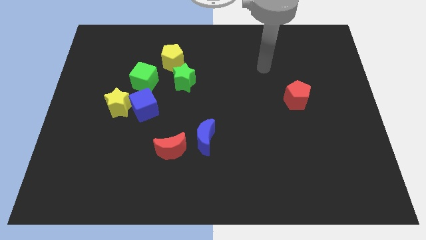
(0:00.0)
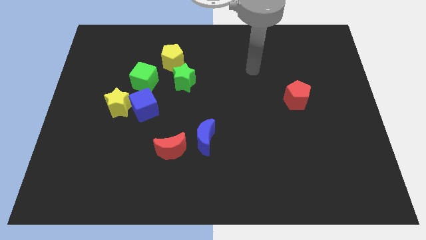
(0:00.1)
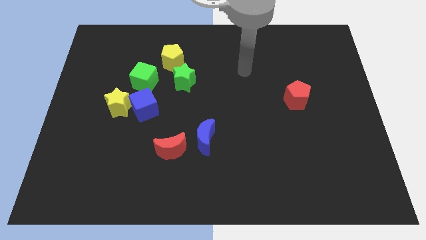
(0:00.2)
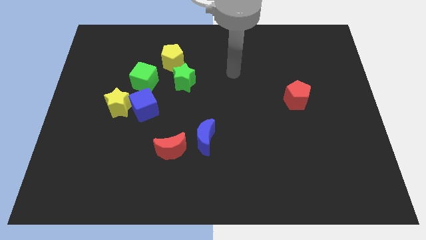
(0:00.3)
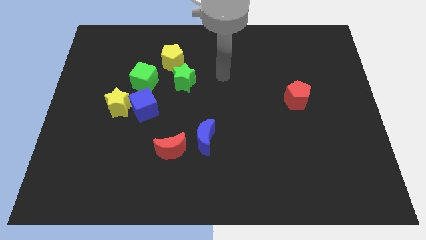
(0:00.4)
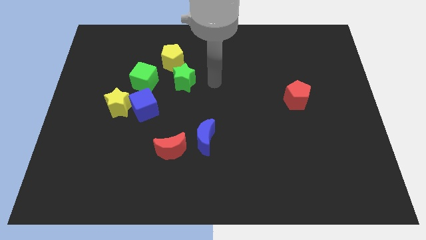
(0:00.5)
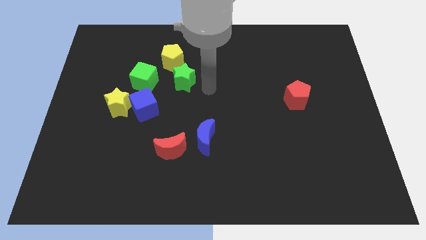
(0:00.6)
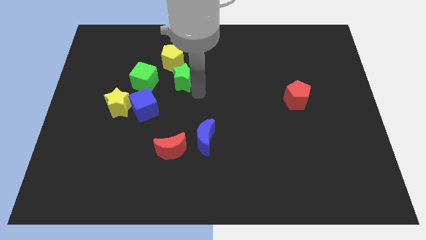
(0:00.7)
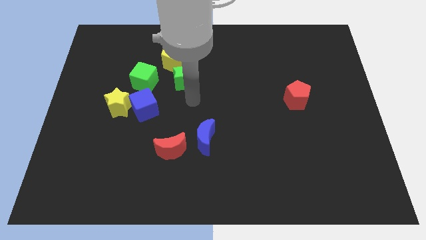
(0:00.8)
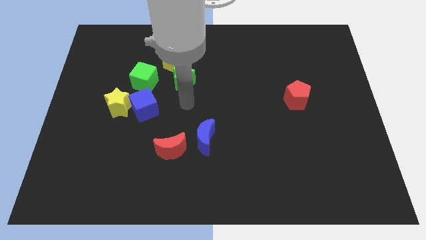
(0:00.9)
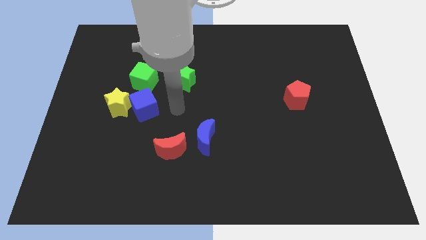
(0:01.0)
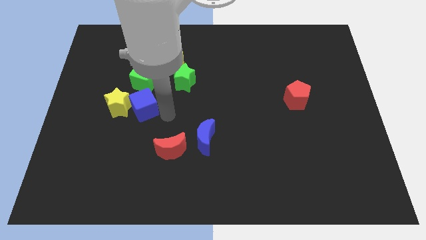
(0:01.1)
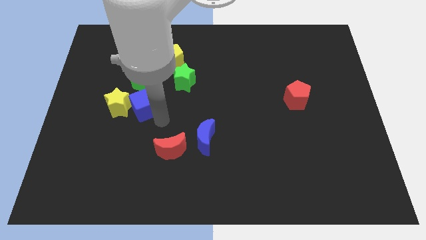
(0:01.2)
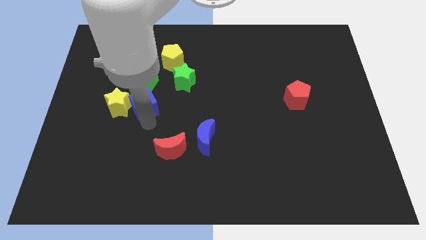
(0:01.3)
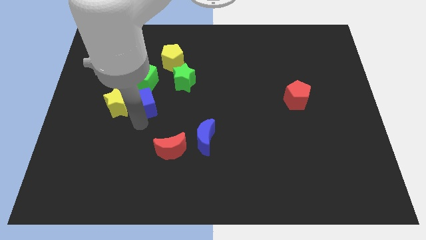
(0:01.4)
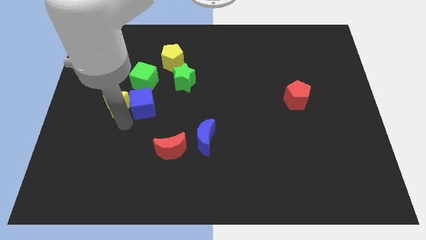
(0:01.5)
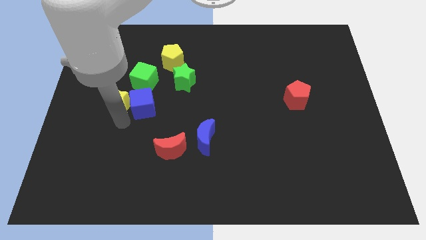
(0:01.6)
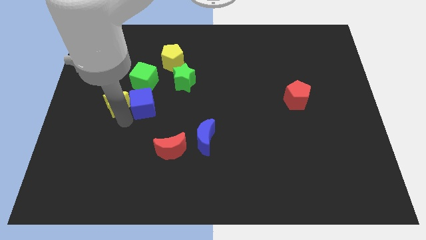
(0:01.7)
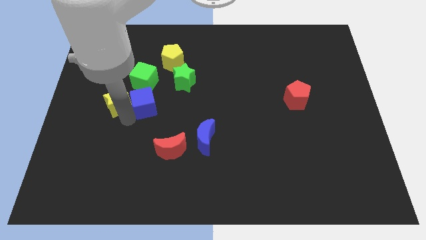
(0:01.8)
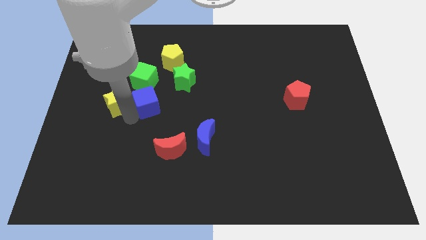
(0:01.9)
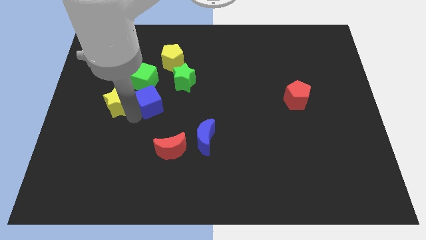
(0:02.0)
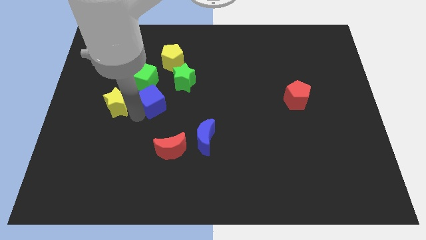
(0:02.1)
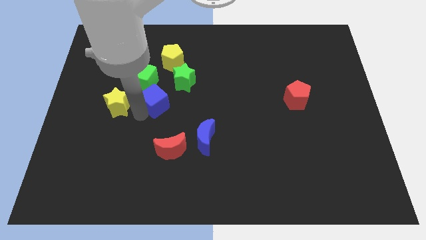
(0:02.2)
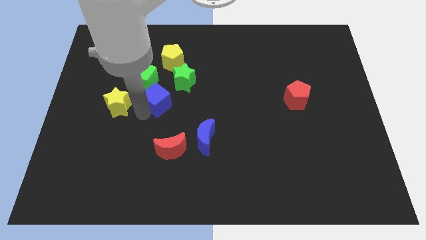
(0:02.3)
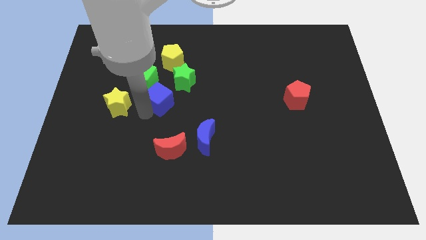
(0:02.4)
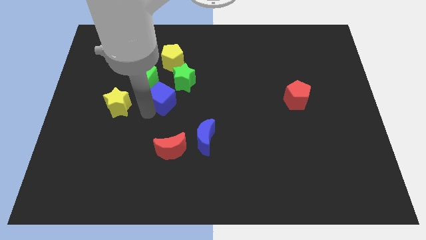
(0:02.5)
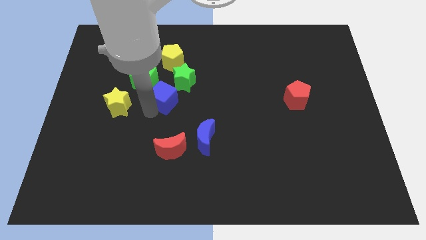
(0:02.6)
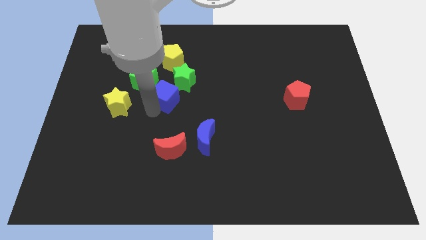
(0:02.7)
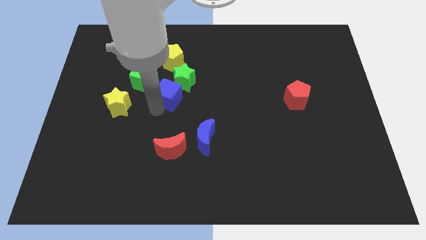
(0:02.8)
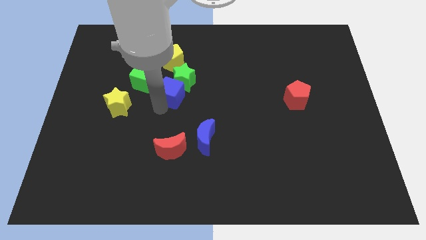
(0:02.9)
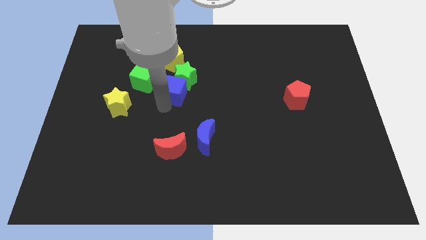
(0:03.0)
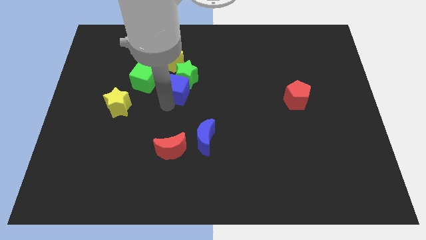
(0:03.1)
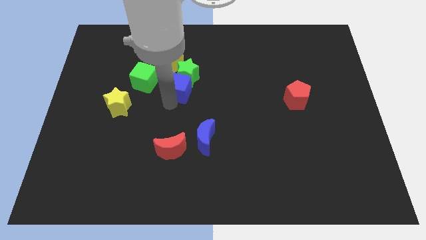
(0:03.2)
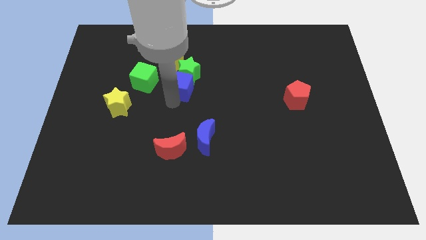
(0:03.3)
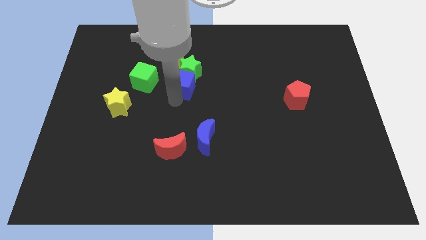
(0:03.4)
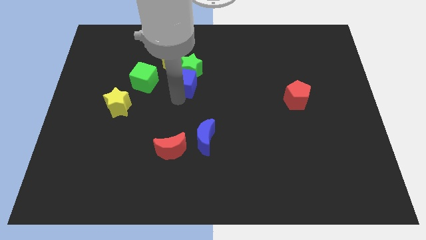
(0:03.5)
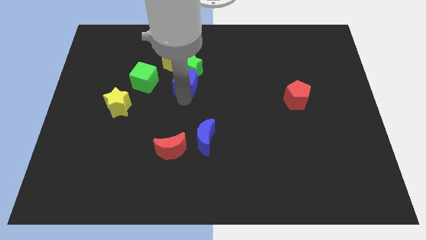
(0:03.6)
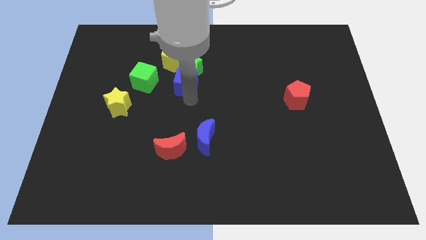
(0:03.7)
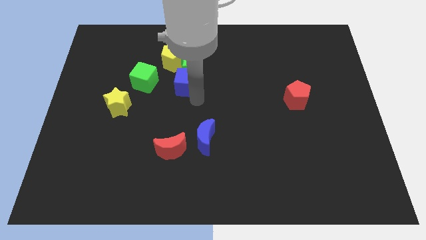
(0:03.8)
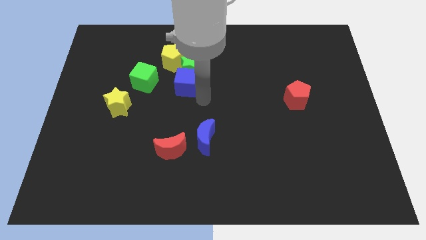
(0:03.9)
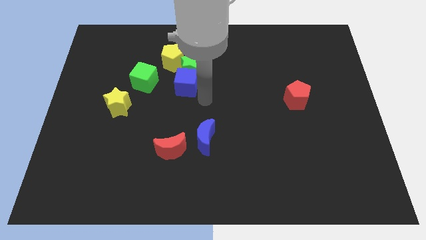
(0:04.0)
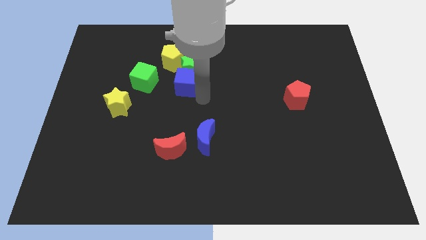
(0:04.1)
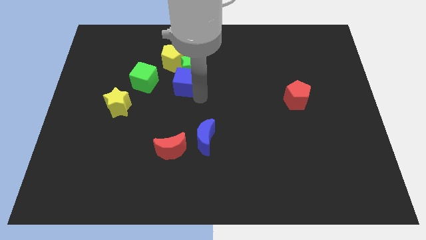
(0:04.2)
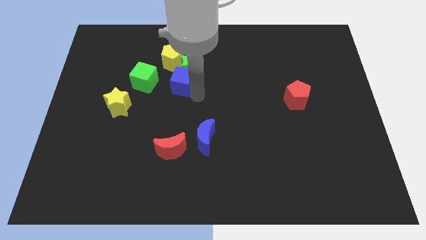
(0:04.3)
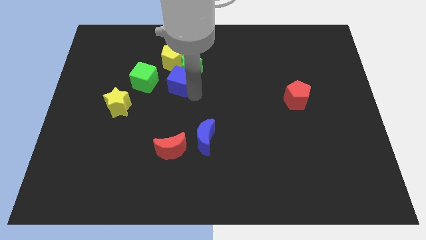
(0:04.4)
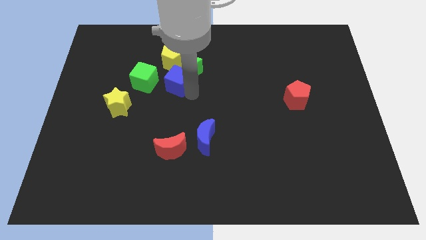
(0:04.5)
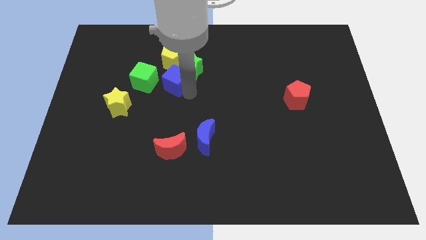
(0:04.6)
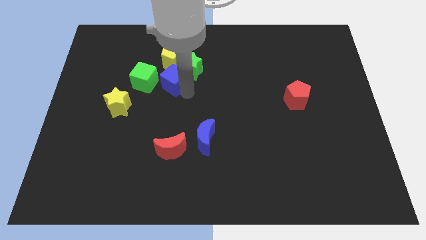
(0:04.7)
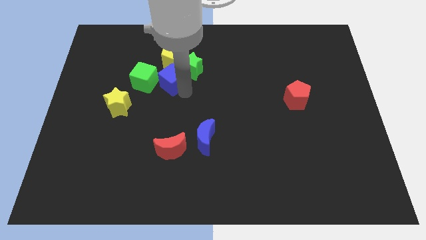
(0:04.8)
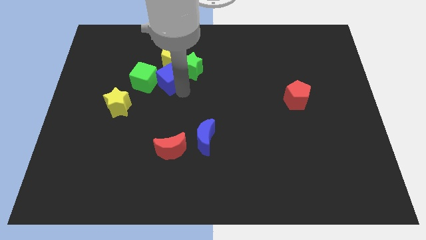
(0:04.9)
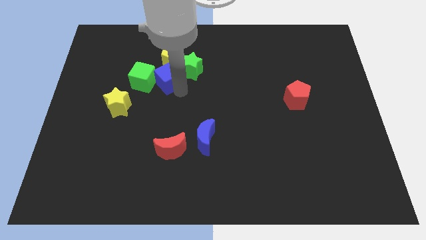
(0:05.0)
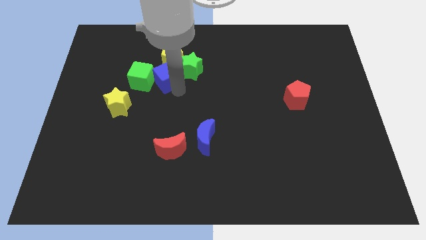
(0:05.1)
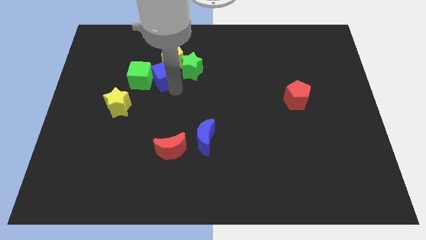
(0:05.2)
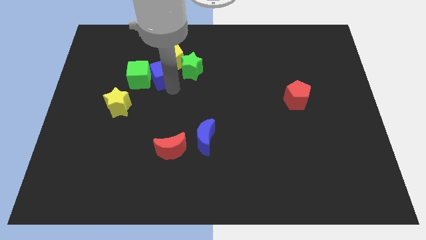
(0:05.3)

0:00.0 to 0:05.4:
put the blue cube next to the yellow pentagon
